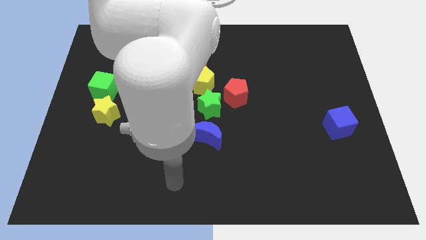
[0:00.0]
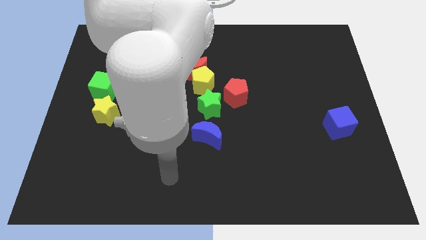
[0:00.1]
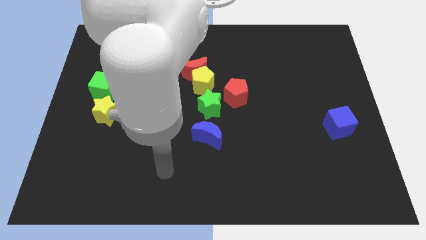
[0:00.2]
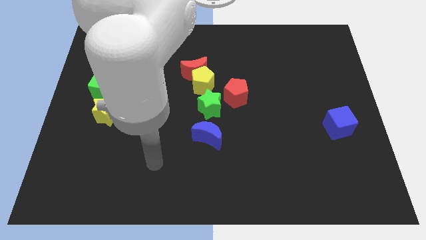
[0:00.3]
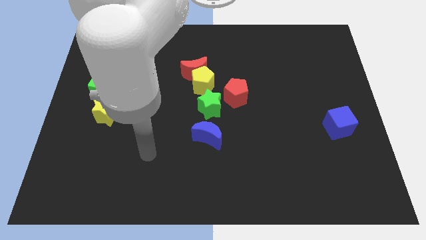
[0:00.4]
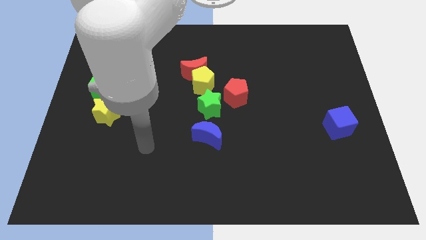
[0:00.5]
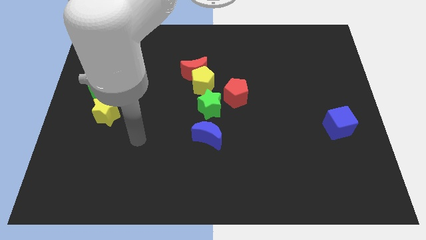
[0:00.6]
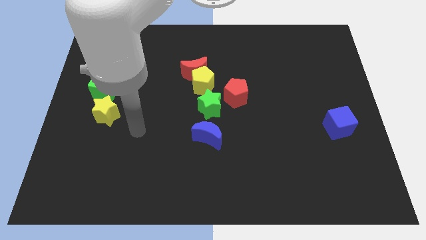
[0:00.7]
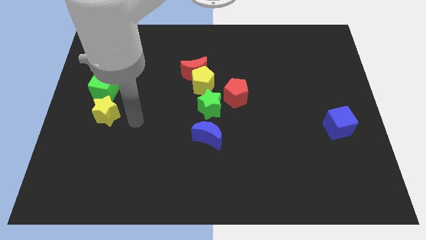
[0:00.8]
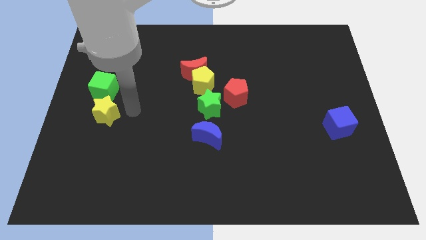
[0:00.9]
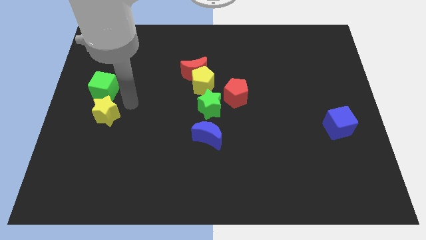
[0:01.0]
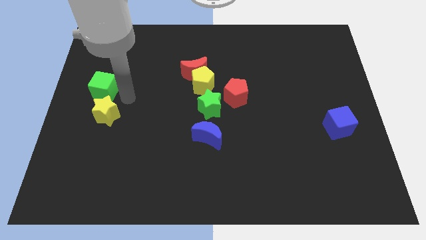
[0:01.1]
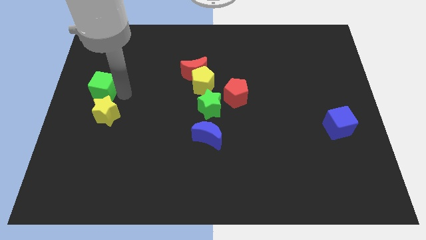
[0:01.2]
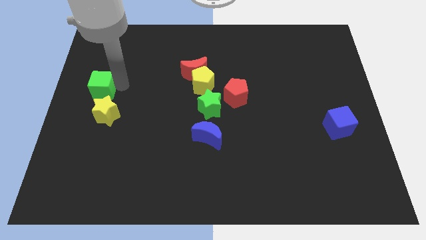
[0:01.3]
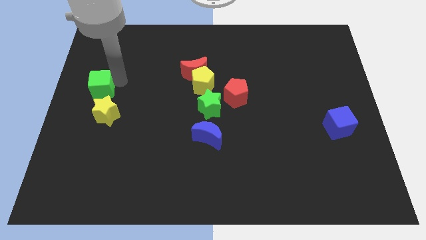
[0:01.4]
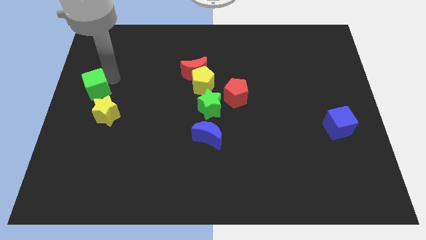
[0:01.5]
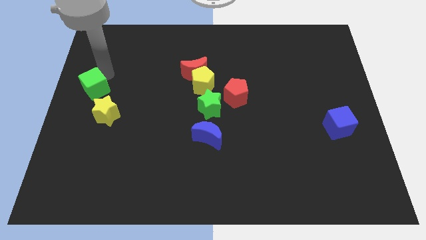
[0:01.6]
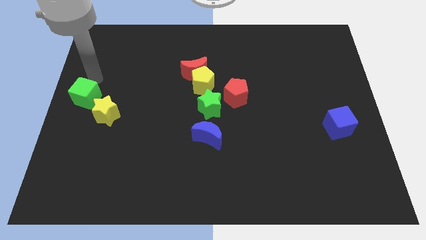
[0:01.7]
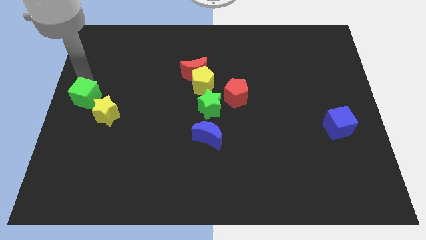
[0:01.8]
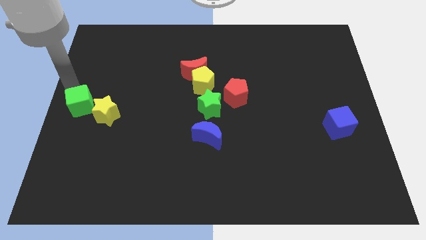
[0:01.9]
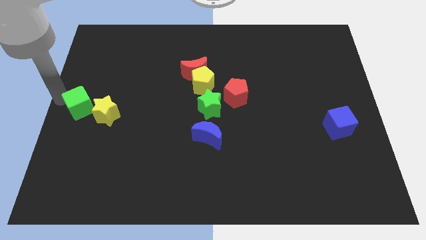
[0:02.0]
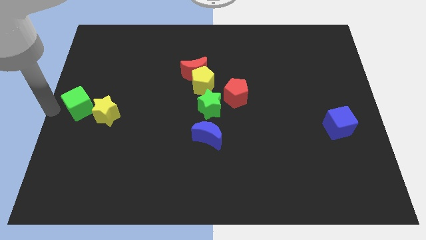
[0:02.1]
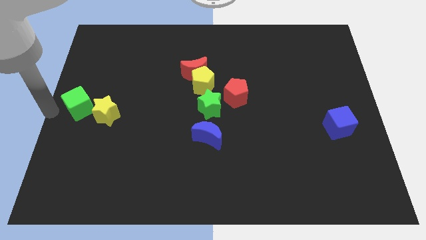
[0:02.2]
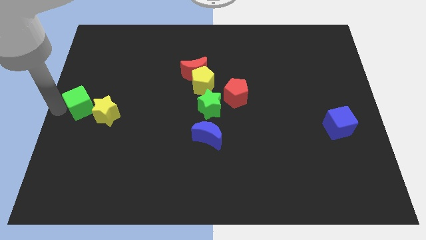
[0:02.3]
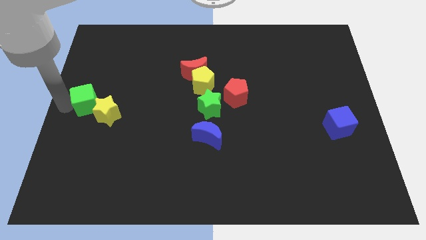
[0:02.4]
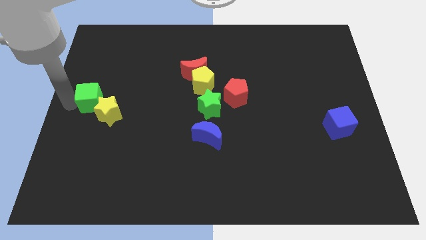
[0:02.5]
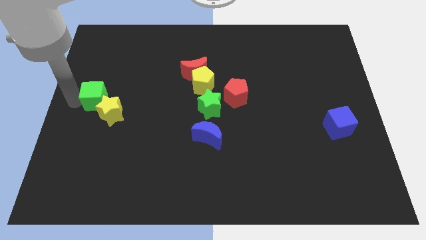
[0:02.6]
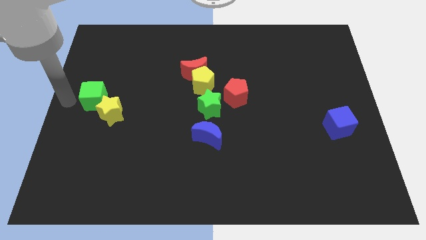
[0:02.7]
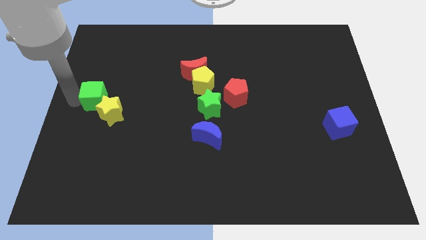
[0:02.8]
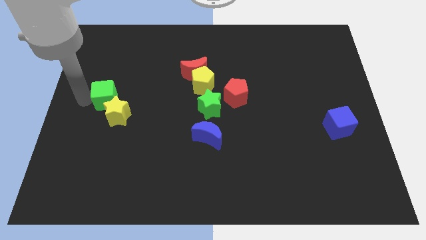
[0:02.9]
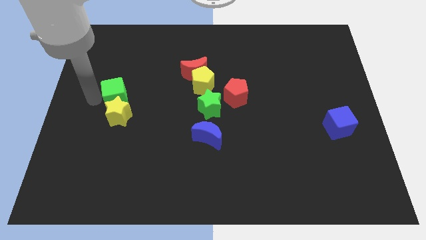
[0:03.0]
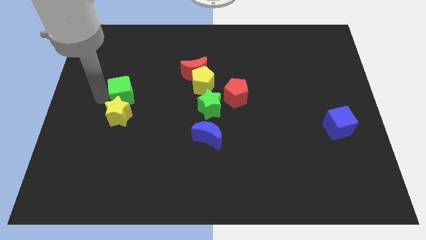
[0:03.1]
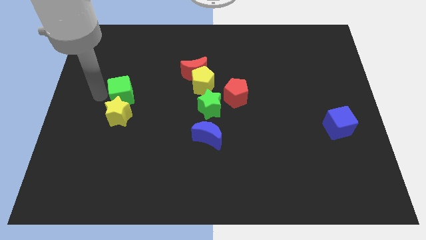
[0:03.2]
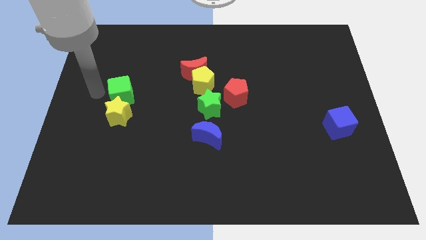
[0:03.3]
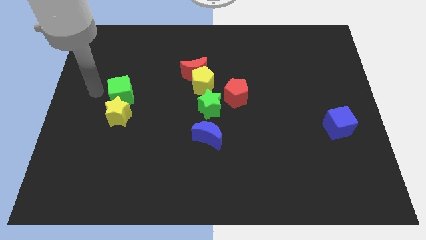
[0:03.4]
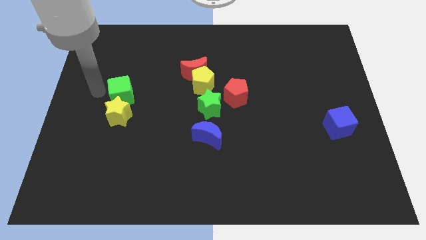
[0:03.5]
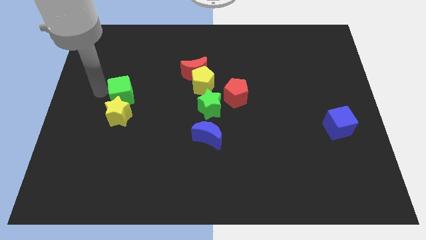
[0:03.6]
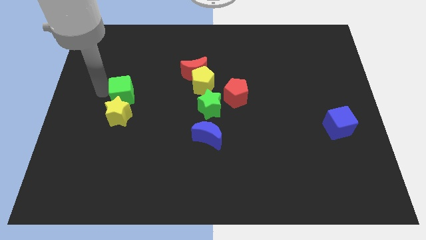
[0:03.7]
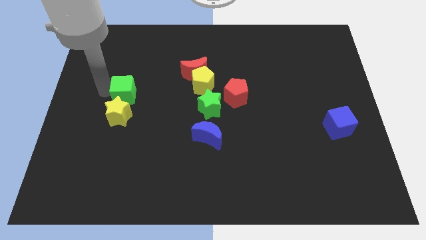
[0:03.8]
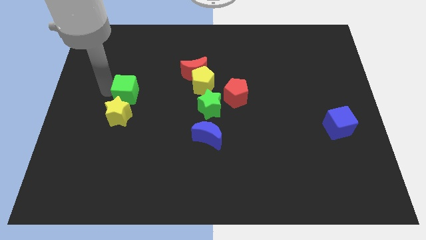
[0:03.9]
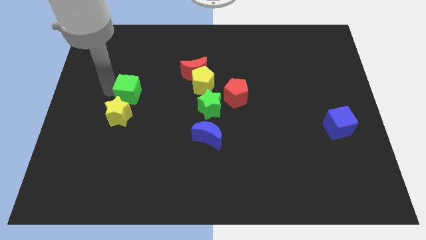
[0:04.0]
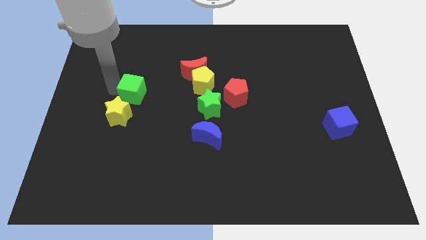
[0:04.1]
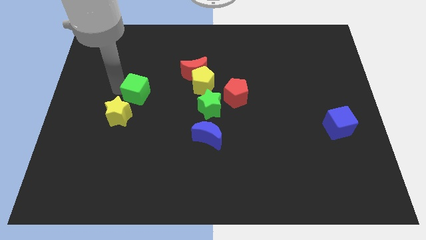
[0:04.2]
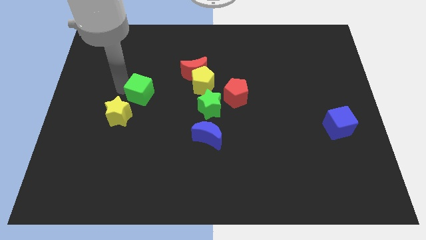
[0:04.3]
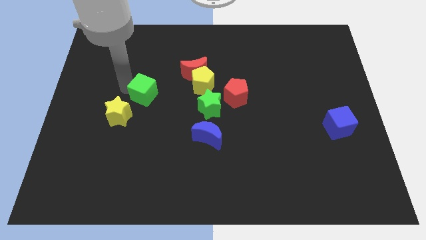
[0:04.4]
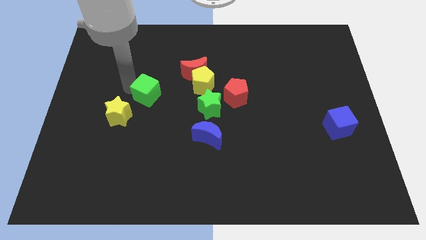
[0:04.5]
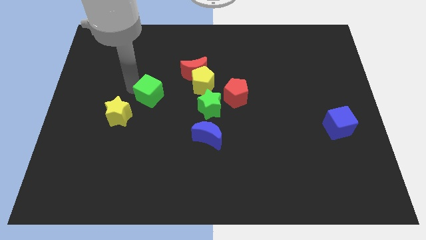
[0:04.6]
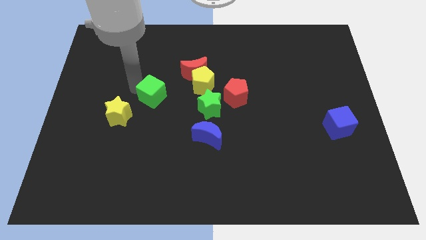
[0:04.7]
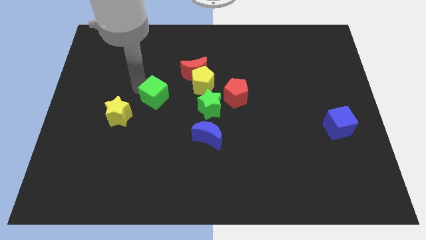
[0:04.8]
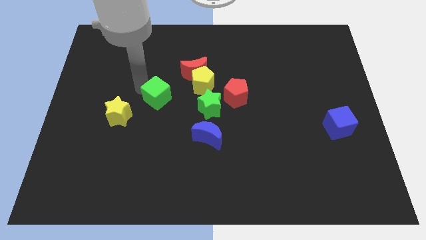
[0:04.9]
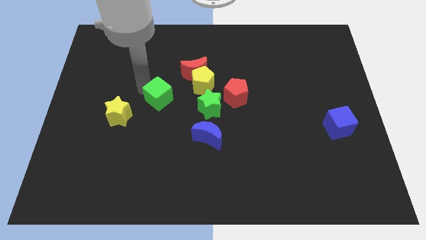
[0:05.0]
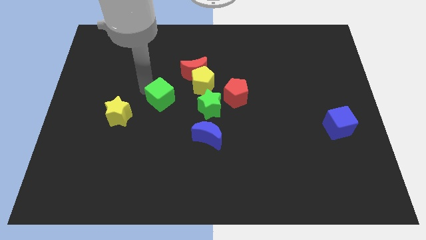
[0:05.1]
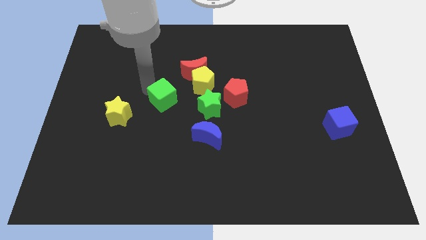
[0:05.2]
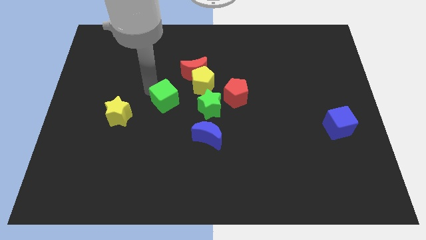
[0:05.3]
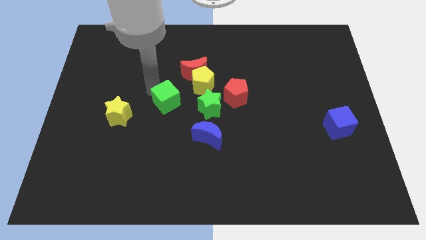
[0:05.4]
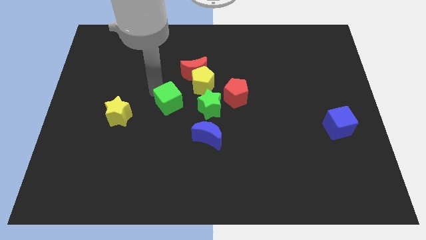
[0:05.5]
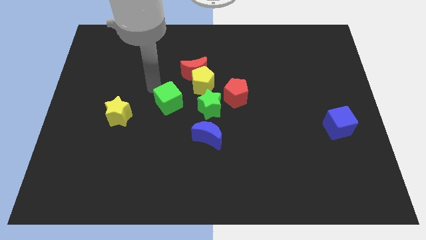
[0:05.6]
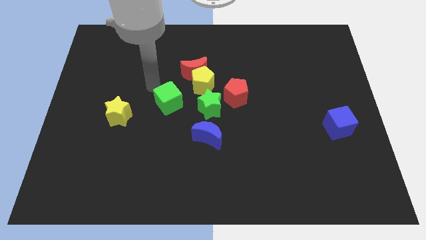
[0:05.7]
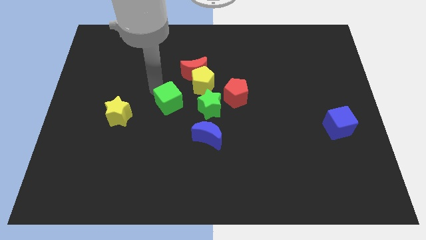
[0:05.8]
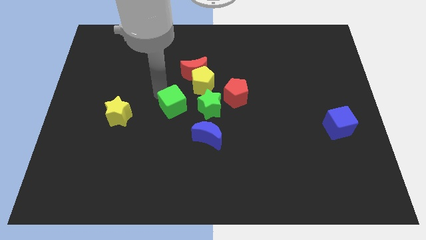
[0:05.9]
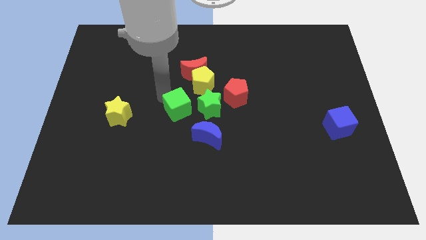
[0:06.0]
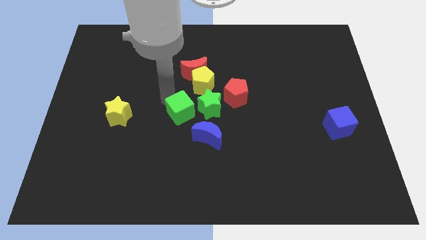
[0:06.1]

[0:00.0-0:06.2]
put the green cube below the yellow pentagon

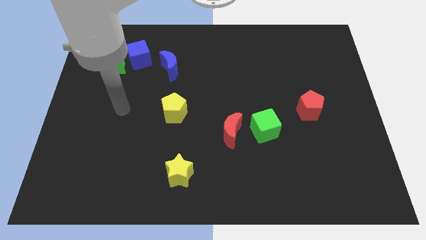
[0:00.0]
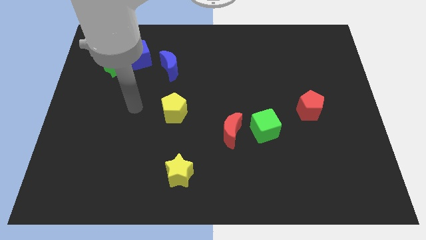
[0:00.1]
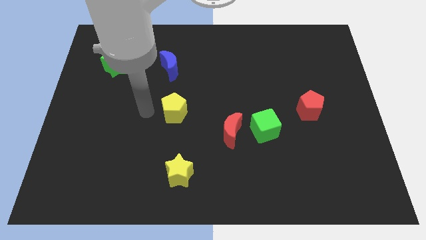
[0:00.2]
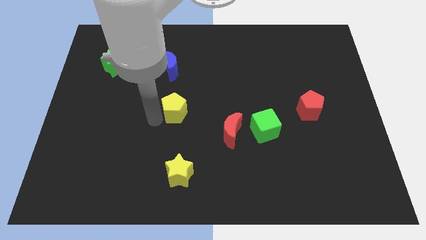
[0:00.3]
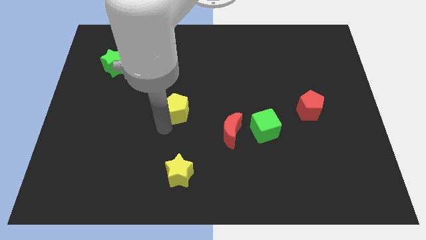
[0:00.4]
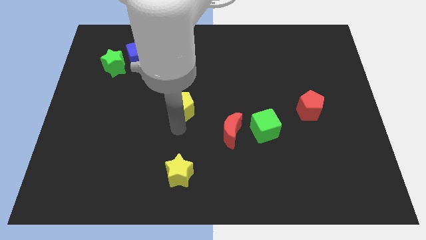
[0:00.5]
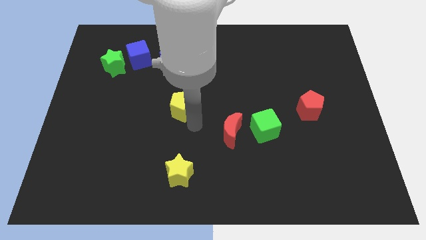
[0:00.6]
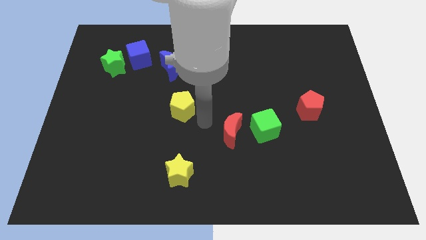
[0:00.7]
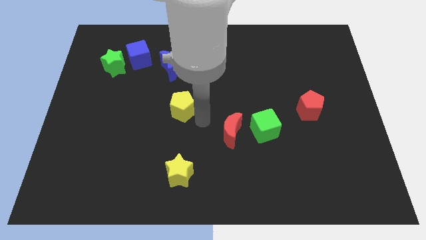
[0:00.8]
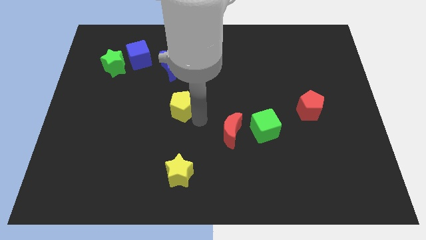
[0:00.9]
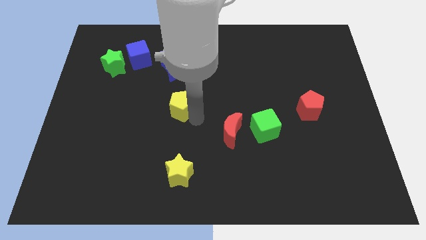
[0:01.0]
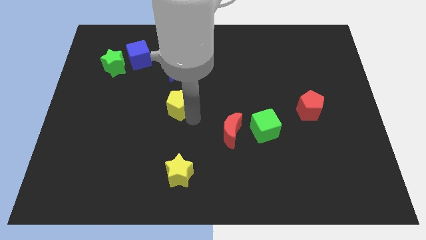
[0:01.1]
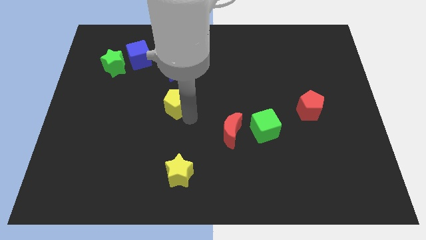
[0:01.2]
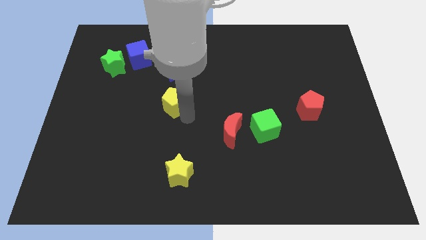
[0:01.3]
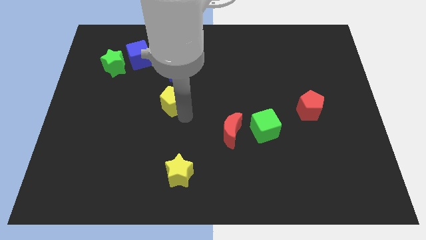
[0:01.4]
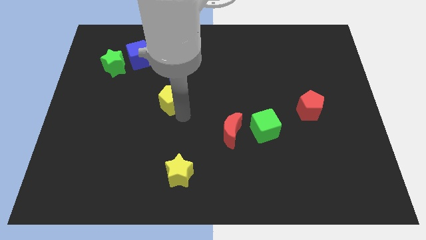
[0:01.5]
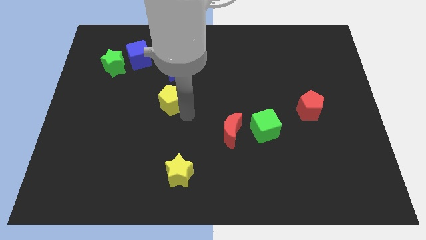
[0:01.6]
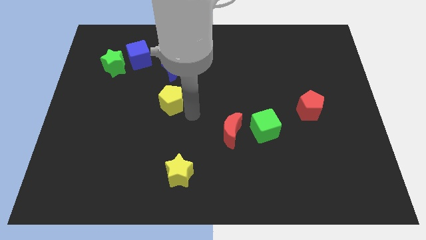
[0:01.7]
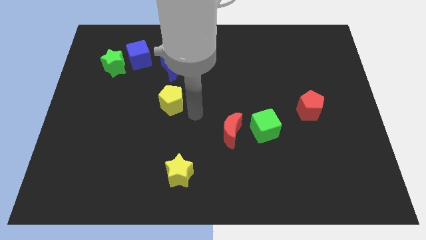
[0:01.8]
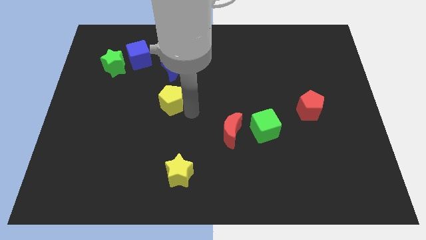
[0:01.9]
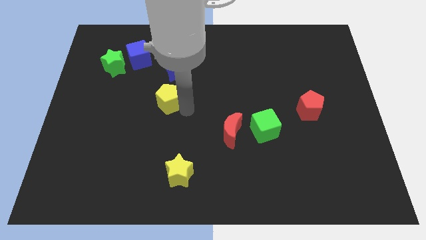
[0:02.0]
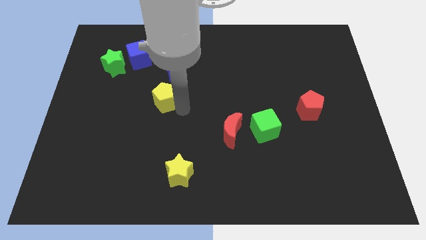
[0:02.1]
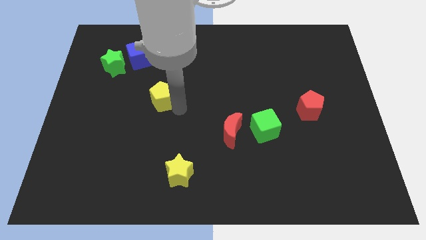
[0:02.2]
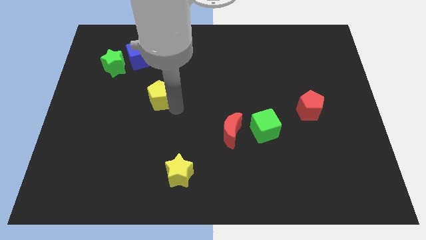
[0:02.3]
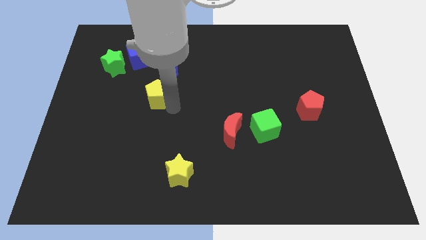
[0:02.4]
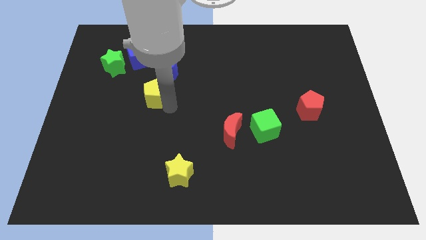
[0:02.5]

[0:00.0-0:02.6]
move the yellow pentagon to the bottom left of the blue moon
